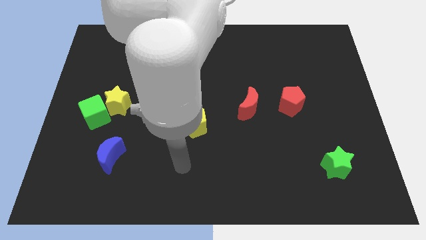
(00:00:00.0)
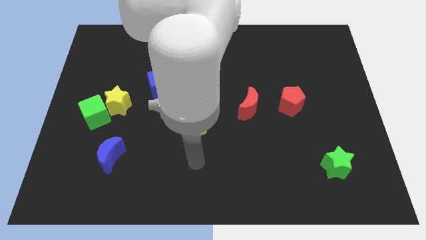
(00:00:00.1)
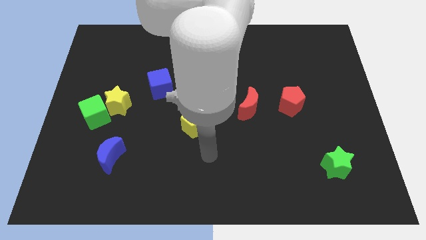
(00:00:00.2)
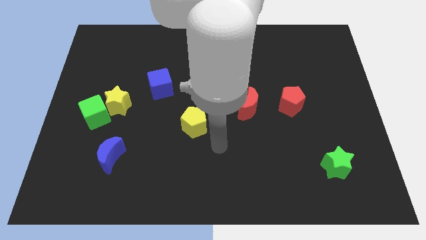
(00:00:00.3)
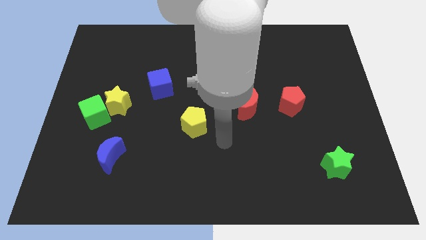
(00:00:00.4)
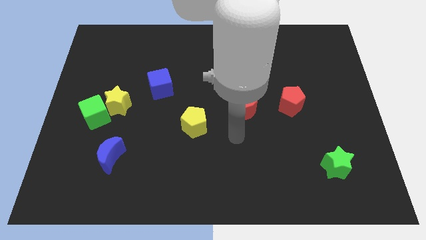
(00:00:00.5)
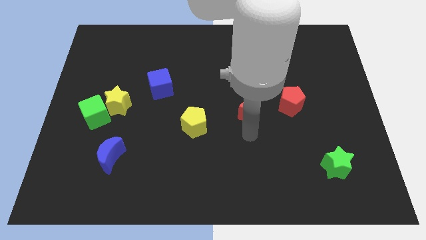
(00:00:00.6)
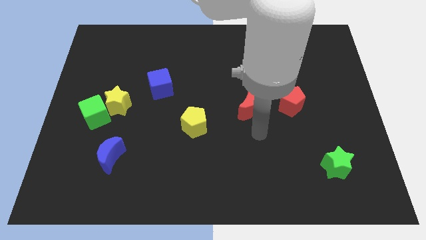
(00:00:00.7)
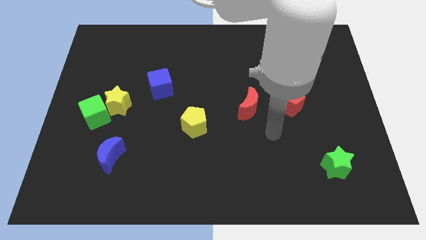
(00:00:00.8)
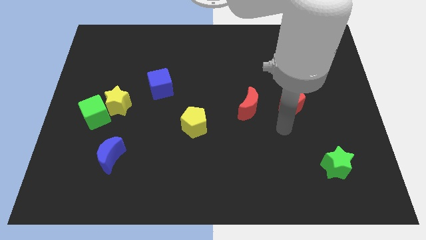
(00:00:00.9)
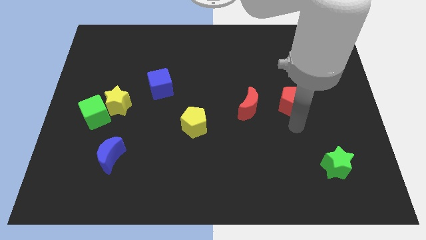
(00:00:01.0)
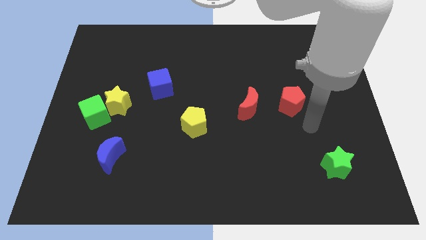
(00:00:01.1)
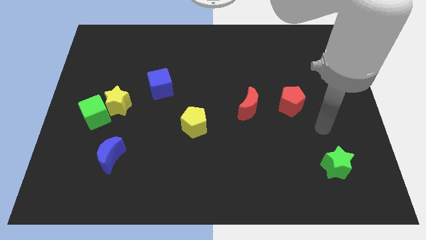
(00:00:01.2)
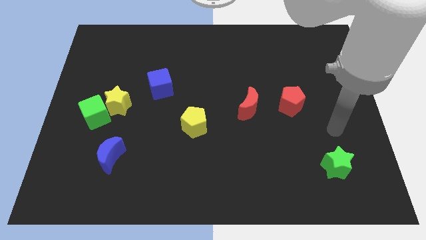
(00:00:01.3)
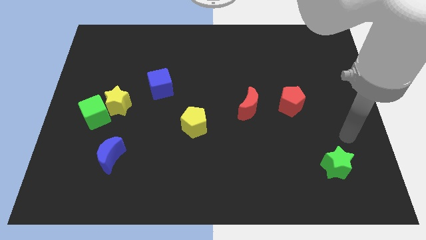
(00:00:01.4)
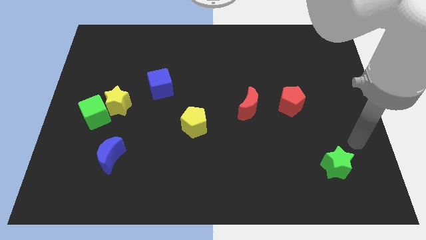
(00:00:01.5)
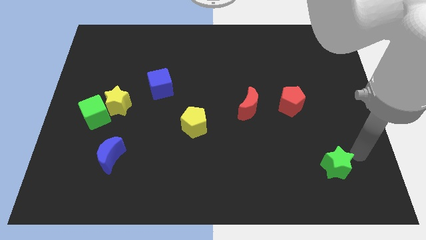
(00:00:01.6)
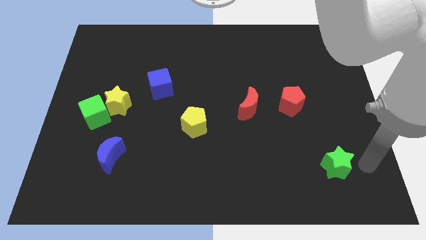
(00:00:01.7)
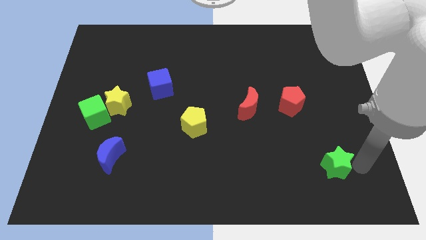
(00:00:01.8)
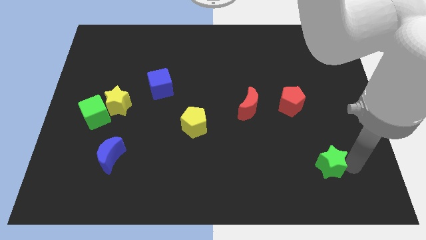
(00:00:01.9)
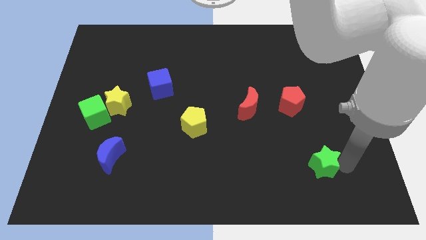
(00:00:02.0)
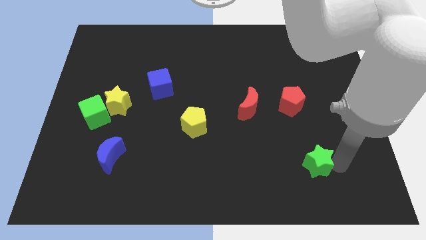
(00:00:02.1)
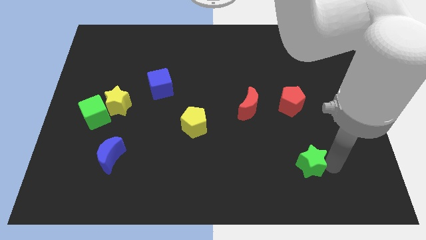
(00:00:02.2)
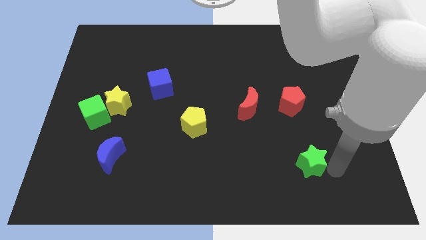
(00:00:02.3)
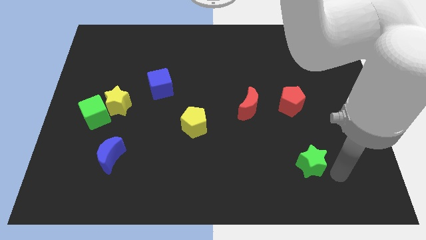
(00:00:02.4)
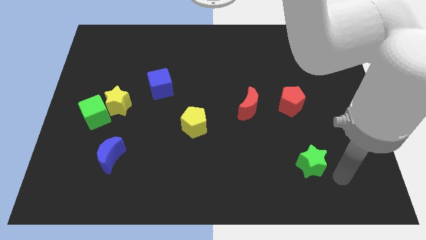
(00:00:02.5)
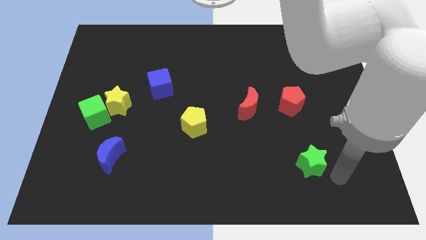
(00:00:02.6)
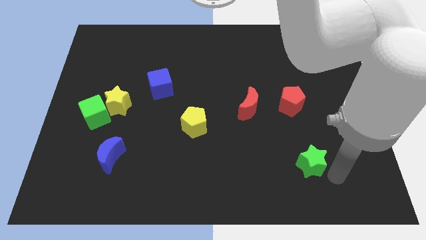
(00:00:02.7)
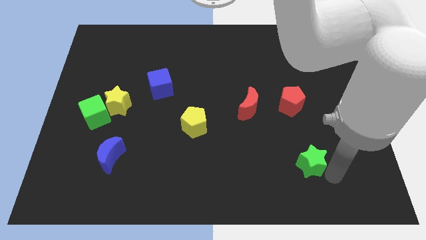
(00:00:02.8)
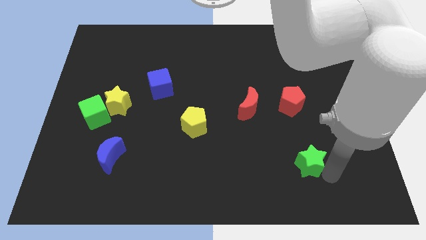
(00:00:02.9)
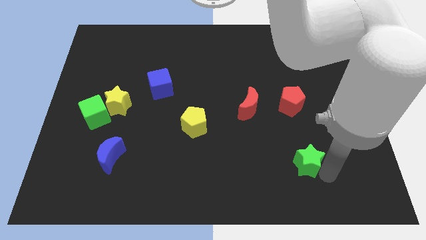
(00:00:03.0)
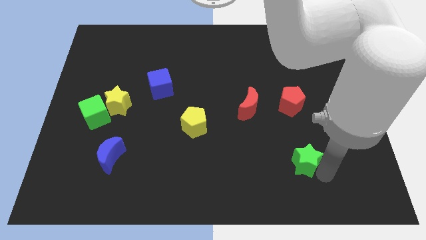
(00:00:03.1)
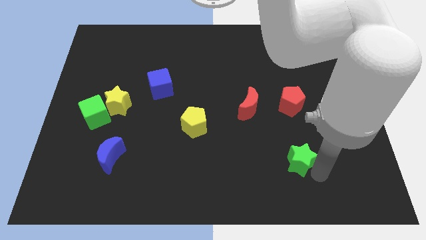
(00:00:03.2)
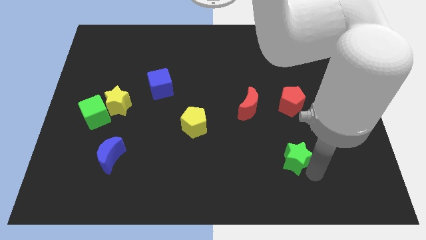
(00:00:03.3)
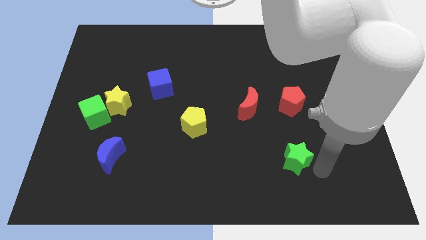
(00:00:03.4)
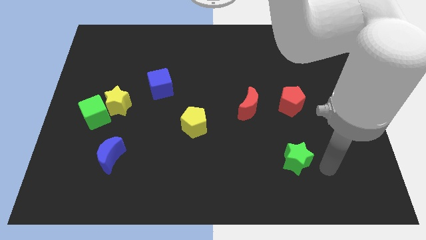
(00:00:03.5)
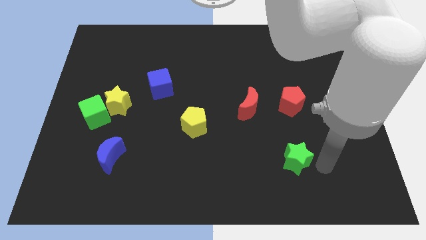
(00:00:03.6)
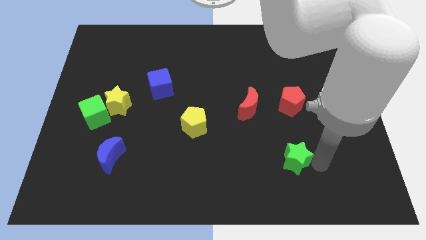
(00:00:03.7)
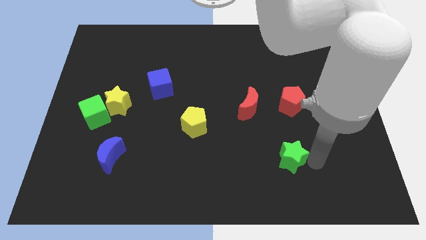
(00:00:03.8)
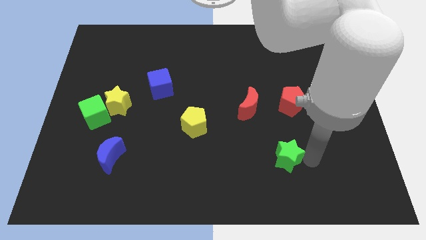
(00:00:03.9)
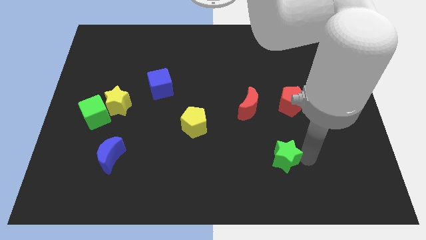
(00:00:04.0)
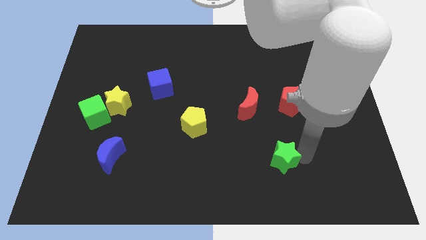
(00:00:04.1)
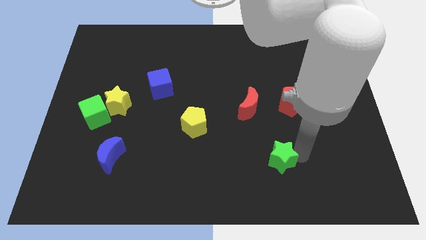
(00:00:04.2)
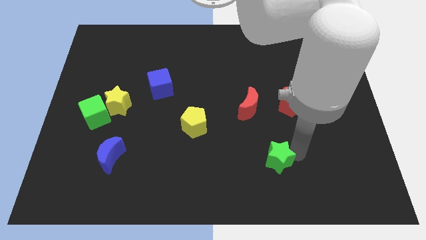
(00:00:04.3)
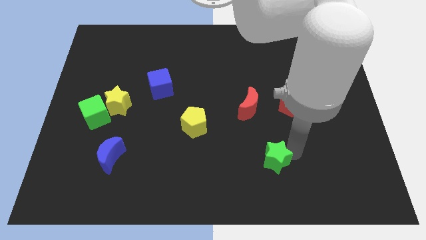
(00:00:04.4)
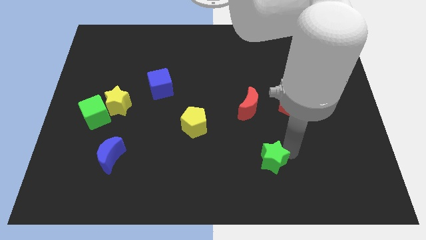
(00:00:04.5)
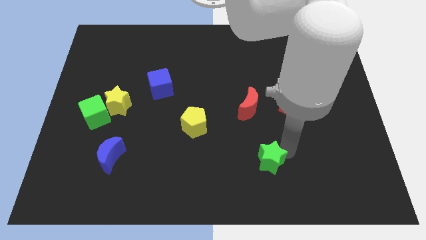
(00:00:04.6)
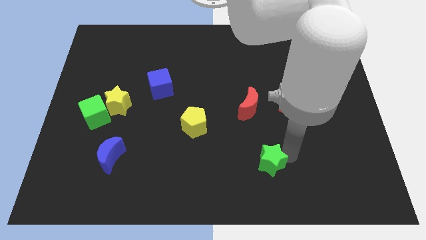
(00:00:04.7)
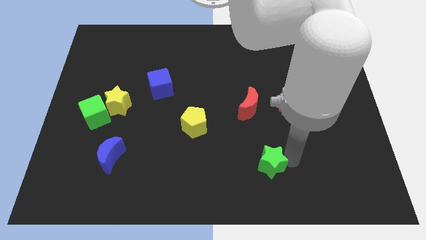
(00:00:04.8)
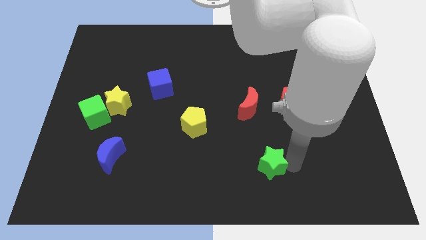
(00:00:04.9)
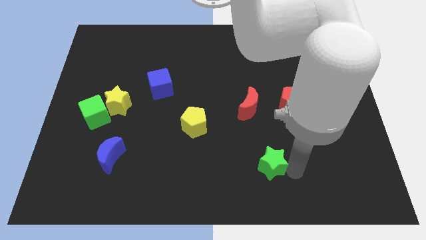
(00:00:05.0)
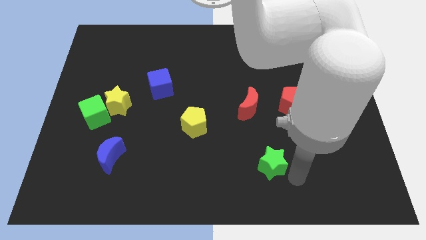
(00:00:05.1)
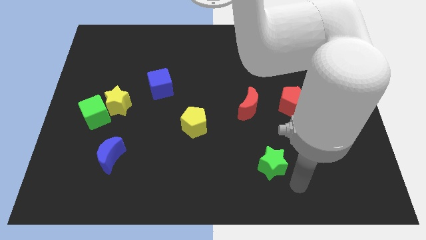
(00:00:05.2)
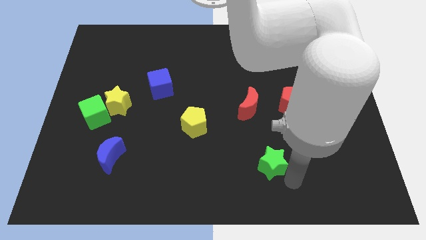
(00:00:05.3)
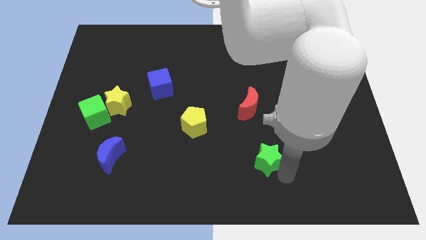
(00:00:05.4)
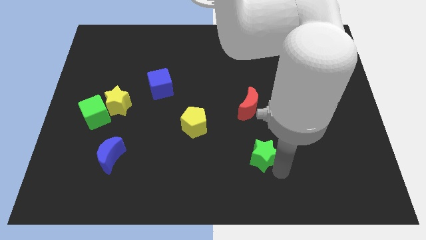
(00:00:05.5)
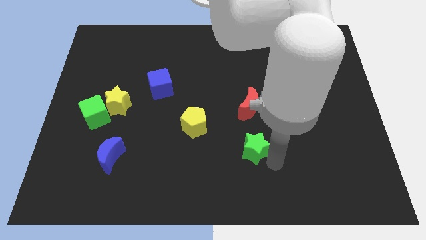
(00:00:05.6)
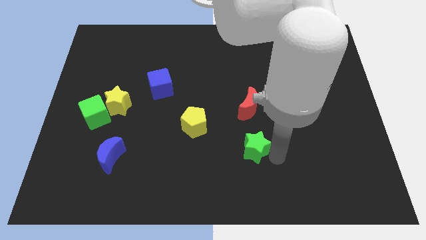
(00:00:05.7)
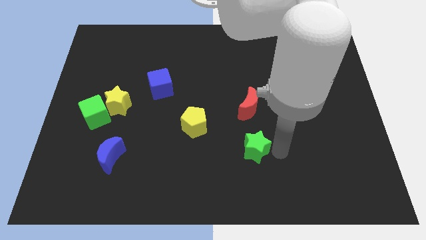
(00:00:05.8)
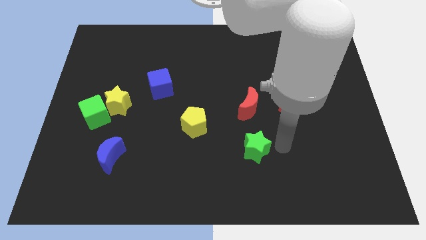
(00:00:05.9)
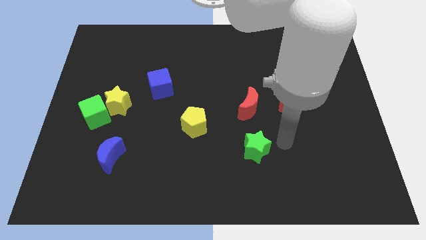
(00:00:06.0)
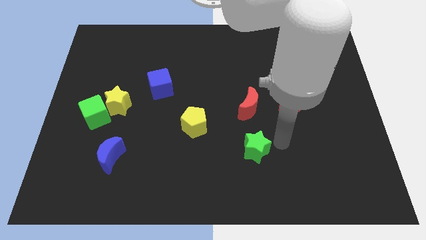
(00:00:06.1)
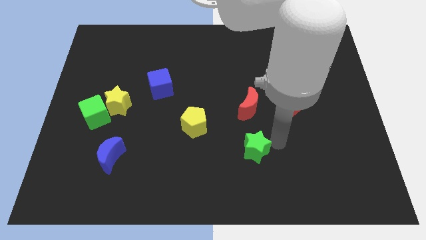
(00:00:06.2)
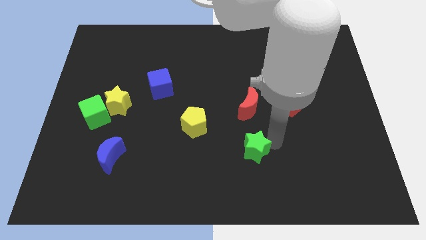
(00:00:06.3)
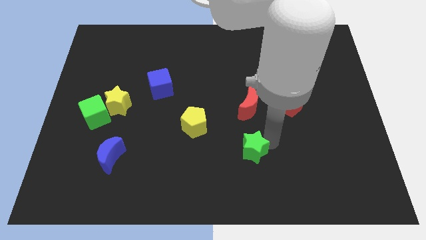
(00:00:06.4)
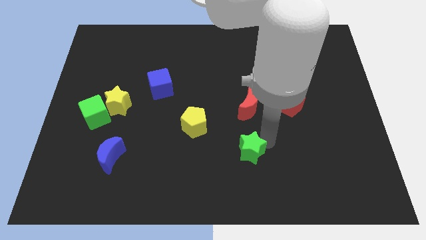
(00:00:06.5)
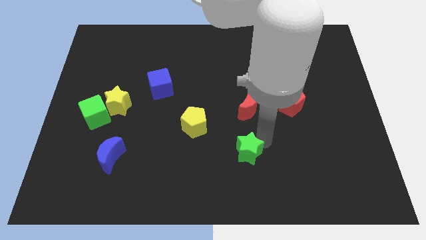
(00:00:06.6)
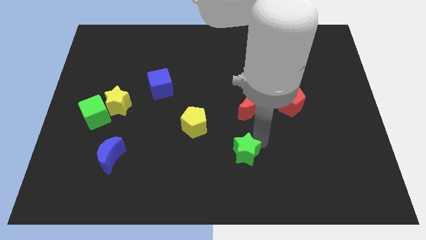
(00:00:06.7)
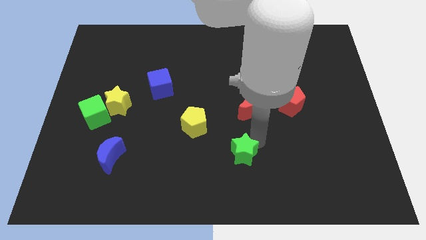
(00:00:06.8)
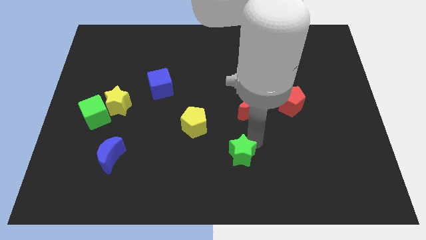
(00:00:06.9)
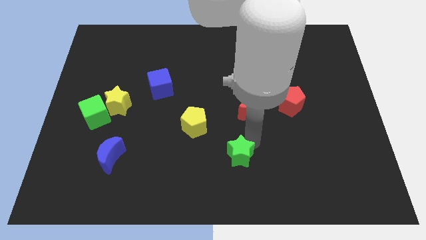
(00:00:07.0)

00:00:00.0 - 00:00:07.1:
slide the green star left

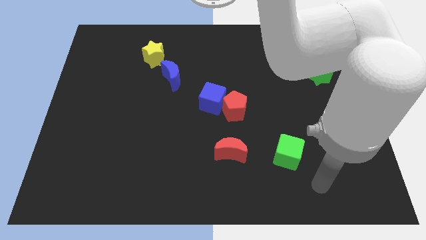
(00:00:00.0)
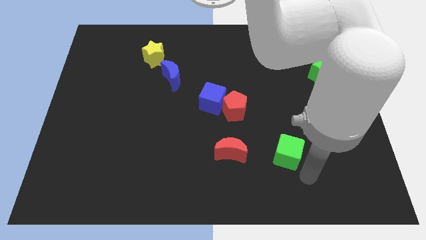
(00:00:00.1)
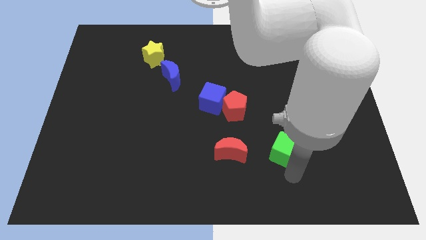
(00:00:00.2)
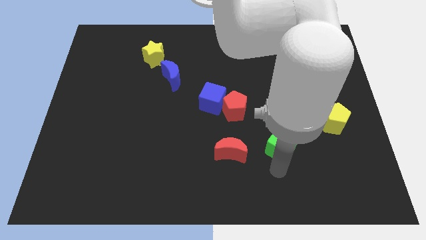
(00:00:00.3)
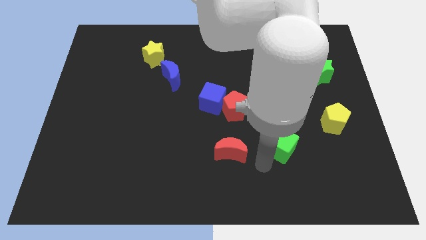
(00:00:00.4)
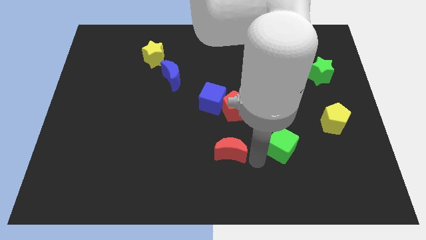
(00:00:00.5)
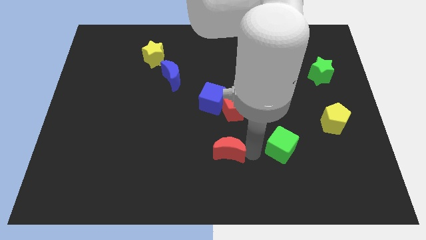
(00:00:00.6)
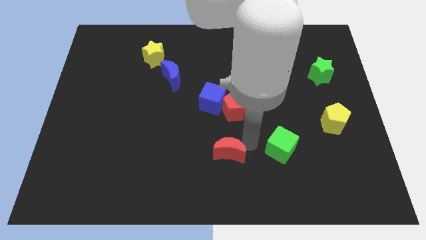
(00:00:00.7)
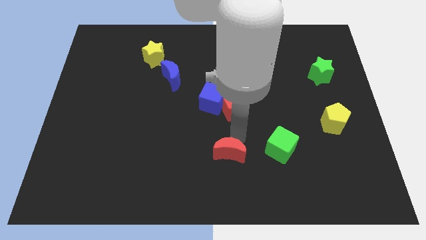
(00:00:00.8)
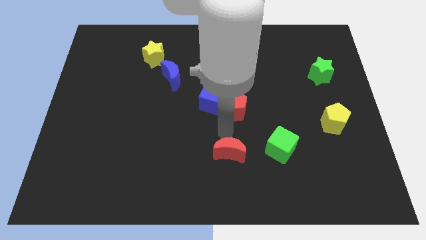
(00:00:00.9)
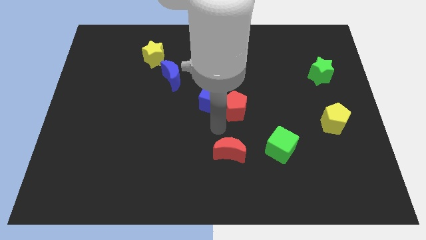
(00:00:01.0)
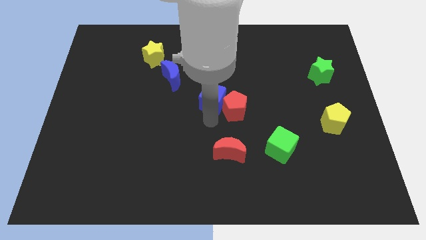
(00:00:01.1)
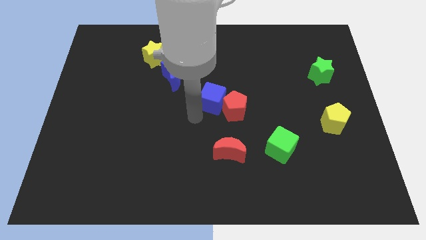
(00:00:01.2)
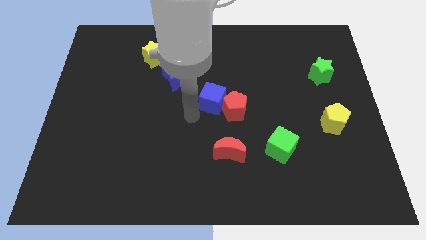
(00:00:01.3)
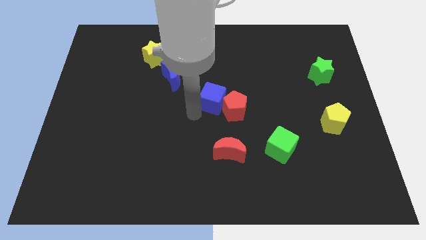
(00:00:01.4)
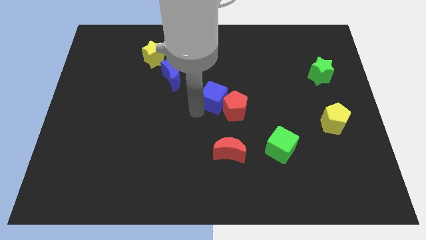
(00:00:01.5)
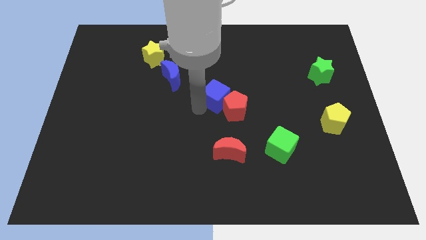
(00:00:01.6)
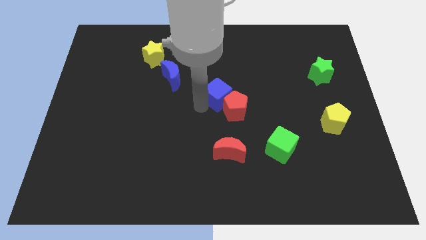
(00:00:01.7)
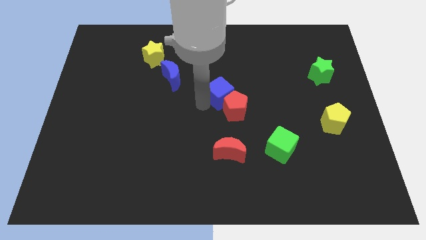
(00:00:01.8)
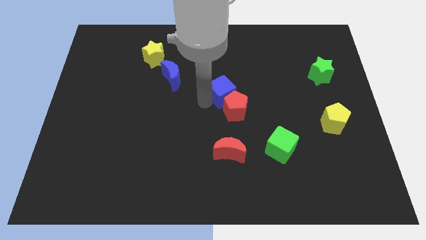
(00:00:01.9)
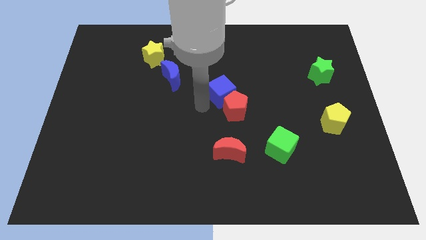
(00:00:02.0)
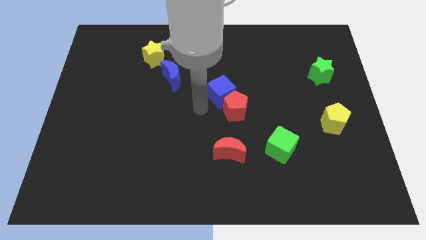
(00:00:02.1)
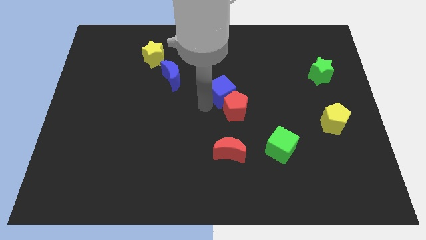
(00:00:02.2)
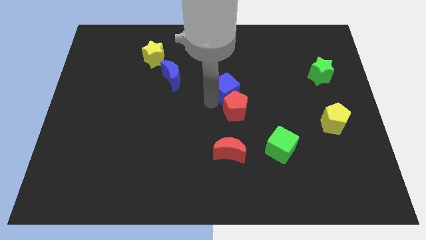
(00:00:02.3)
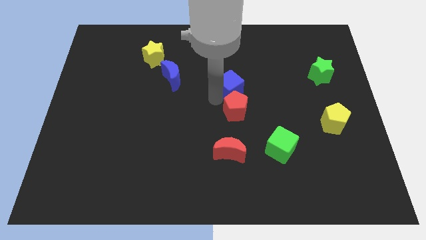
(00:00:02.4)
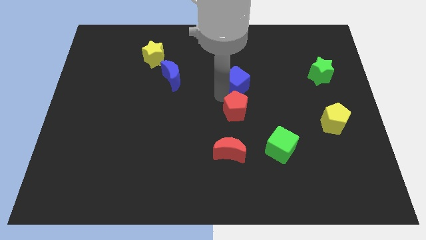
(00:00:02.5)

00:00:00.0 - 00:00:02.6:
move the blue cube upwards and right somewhat
